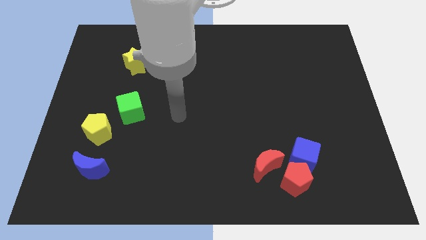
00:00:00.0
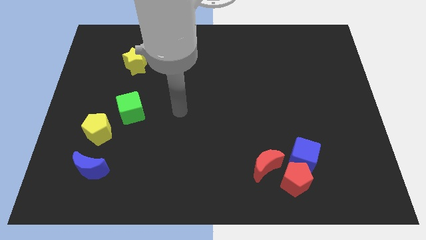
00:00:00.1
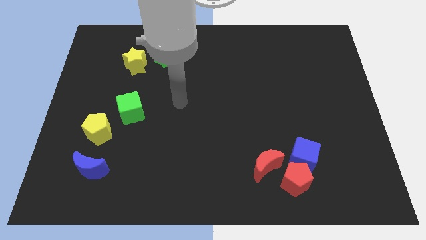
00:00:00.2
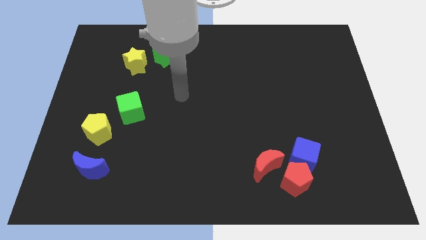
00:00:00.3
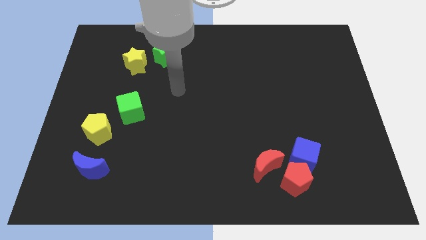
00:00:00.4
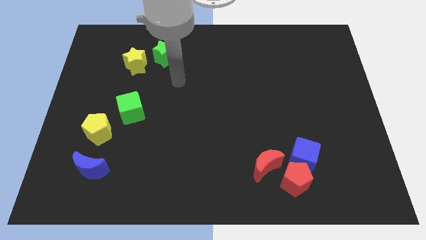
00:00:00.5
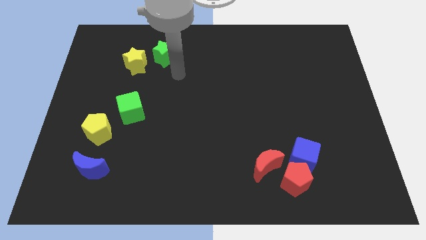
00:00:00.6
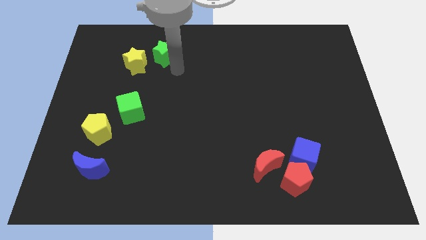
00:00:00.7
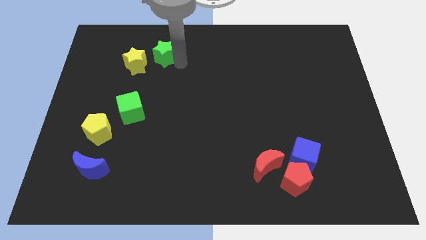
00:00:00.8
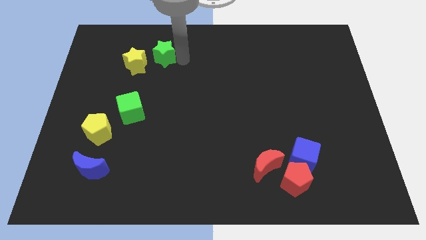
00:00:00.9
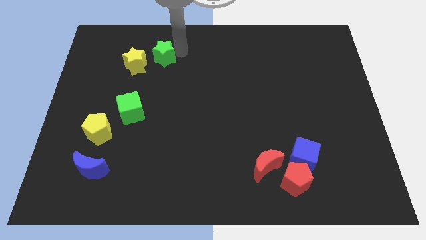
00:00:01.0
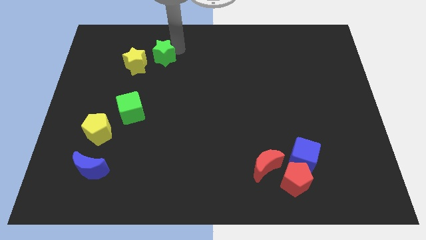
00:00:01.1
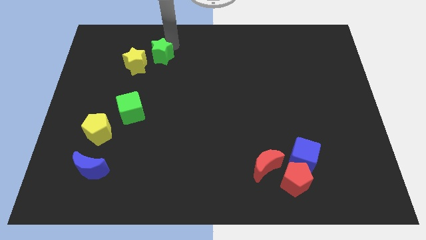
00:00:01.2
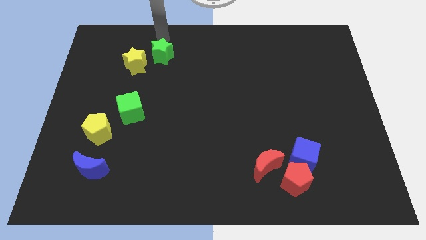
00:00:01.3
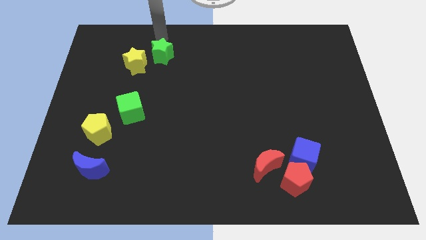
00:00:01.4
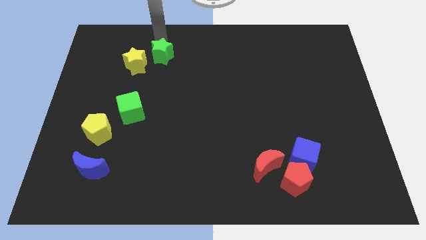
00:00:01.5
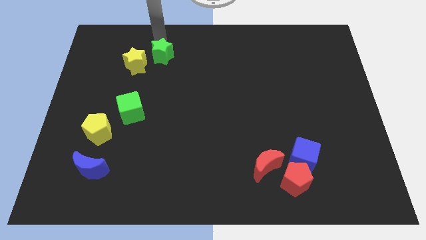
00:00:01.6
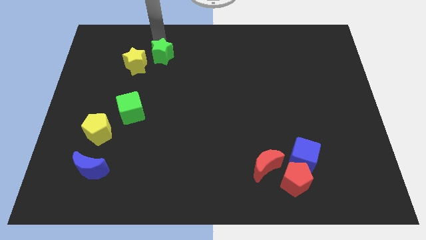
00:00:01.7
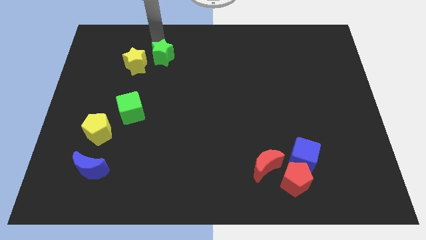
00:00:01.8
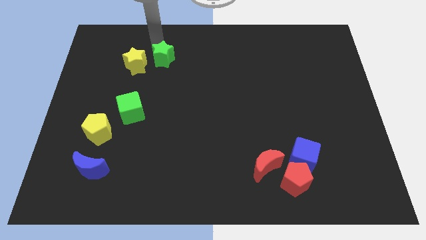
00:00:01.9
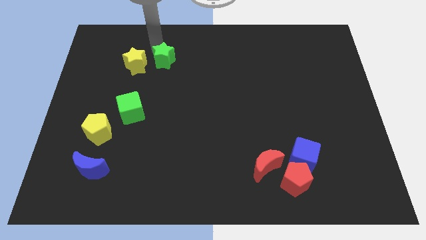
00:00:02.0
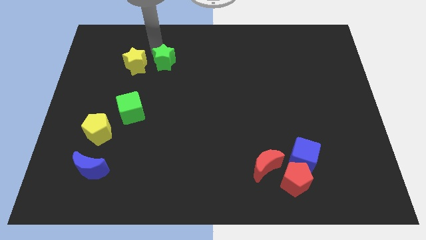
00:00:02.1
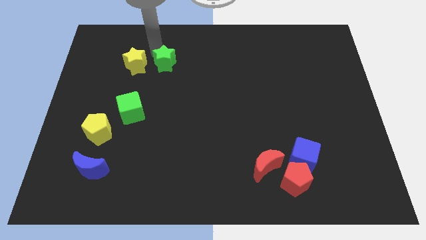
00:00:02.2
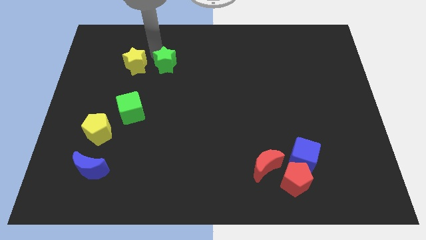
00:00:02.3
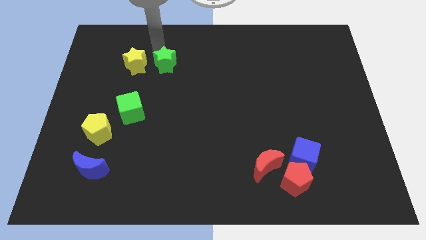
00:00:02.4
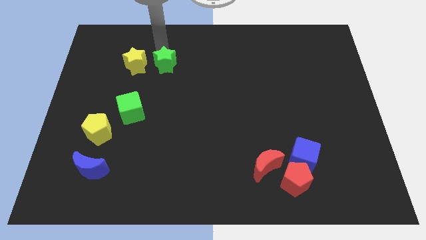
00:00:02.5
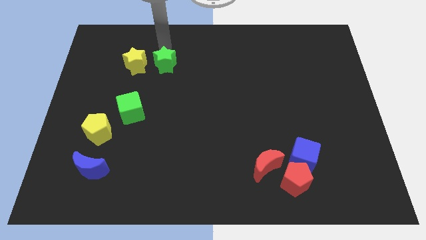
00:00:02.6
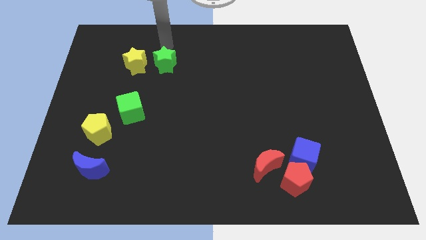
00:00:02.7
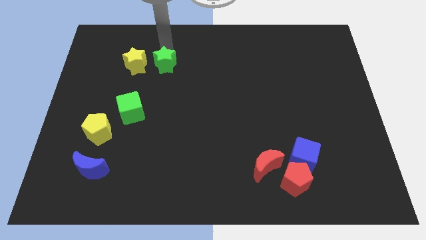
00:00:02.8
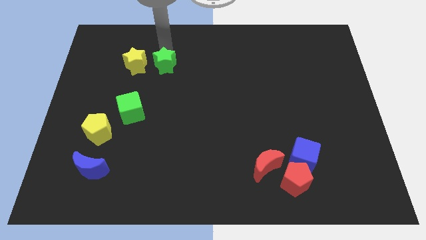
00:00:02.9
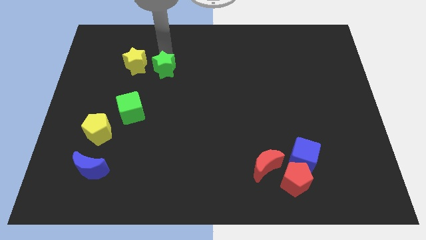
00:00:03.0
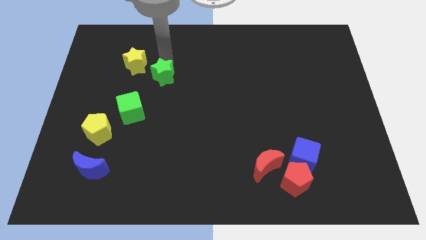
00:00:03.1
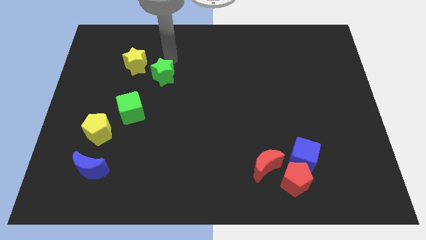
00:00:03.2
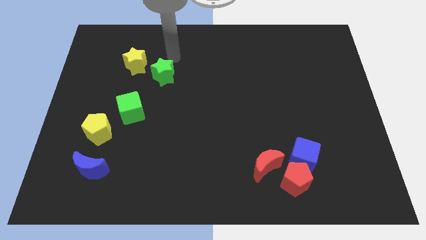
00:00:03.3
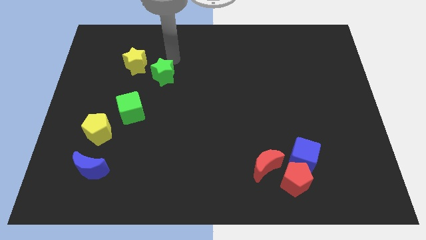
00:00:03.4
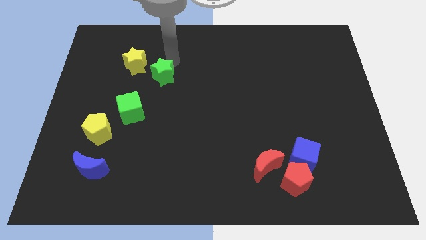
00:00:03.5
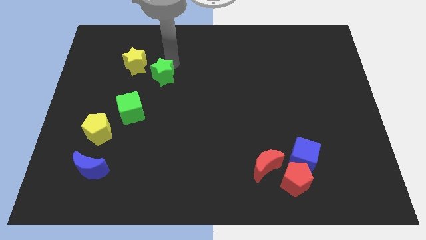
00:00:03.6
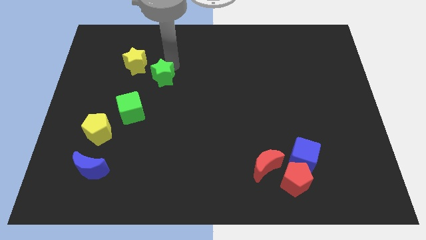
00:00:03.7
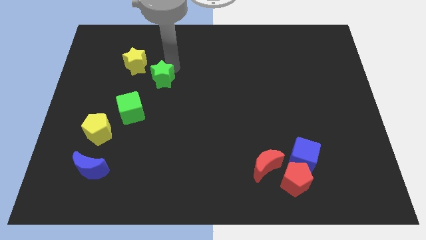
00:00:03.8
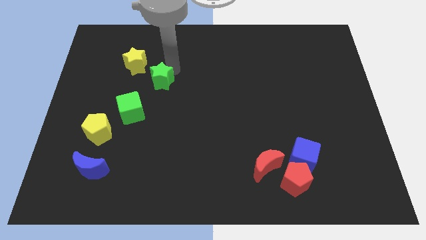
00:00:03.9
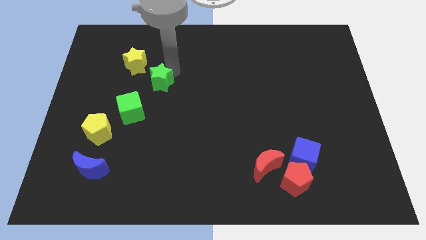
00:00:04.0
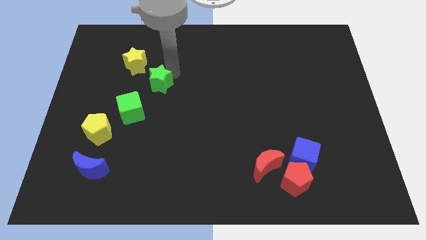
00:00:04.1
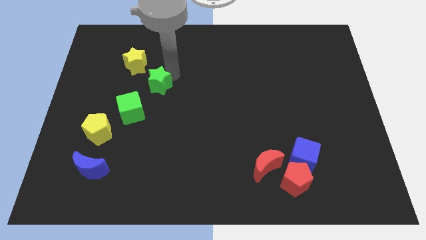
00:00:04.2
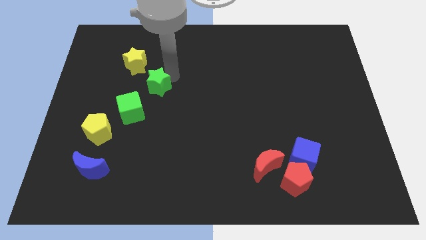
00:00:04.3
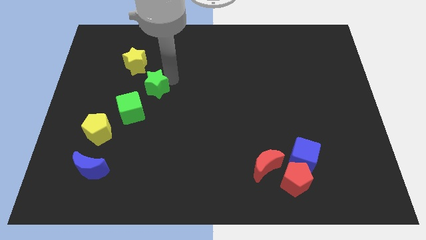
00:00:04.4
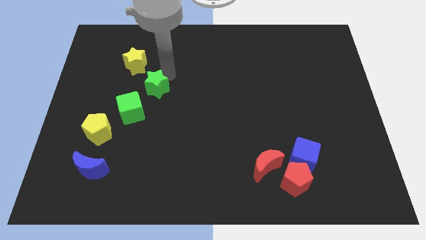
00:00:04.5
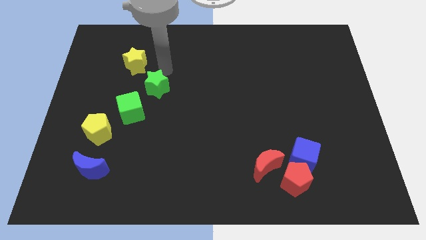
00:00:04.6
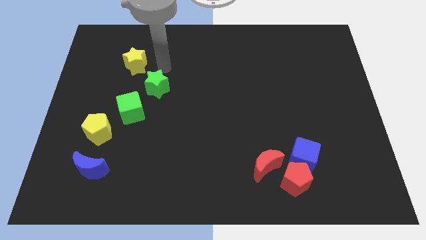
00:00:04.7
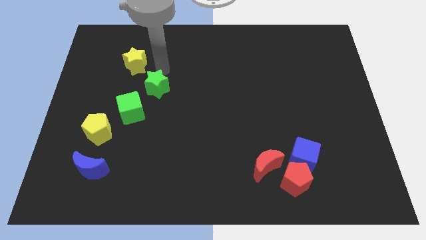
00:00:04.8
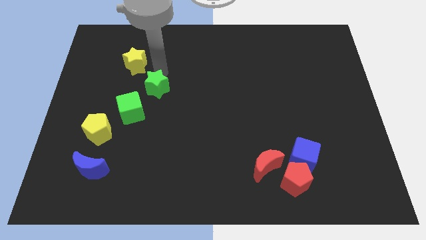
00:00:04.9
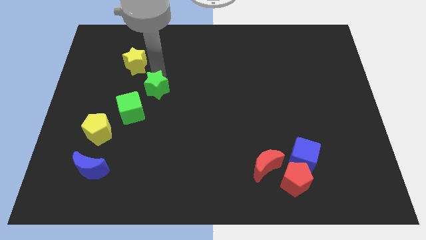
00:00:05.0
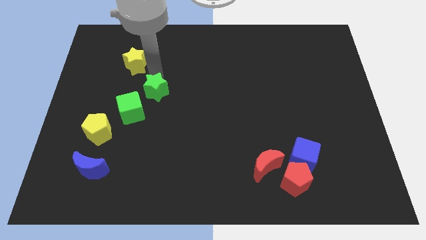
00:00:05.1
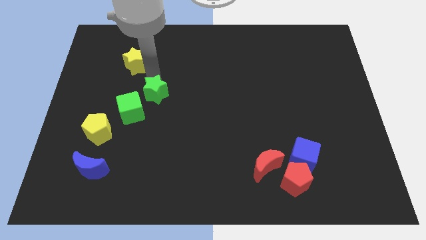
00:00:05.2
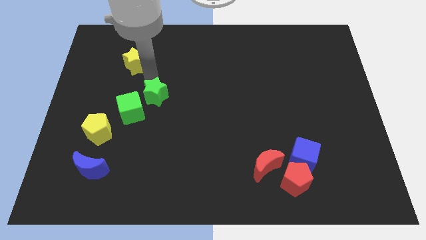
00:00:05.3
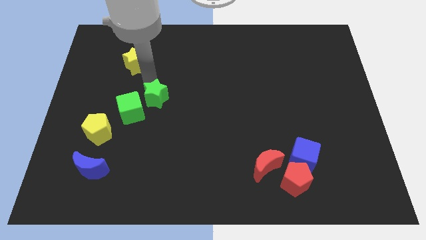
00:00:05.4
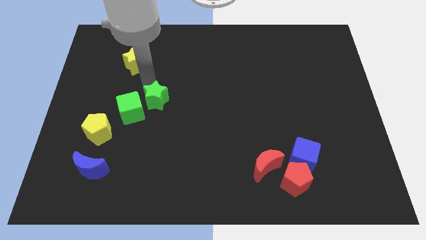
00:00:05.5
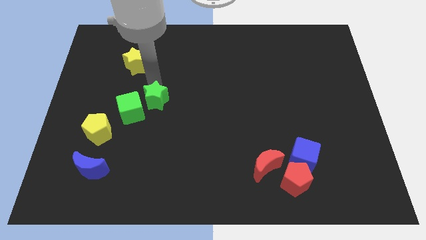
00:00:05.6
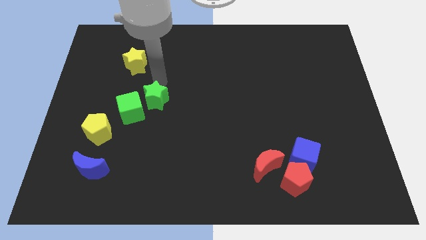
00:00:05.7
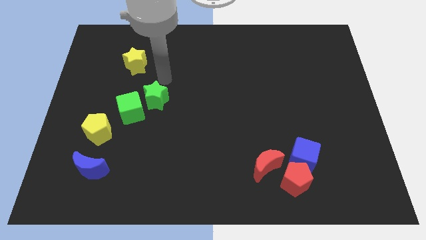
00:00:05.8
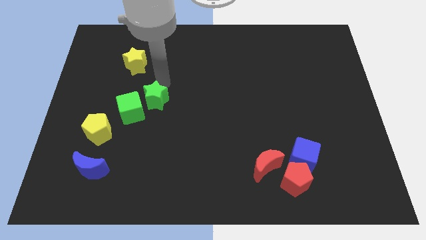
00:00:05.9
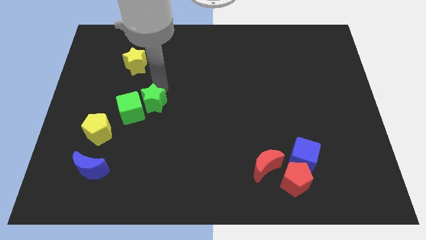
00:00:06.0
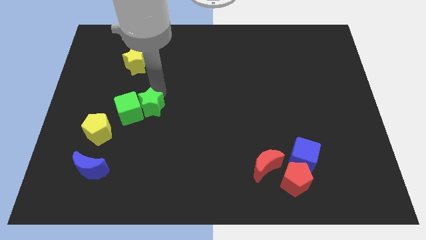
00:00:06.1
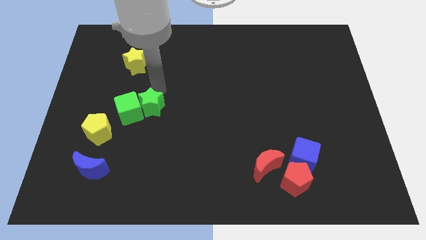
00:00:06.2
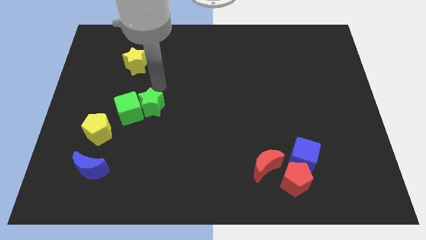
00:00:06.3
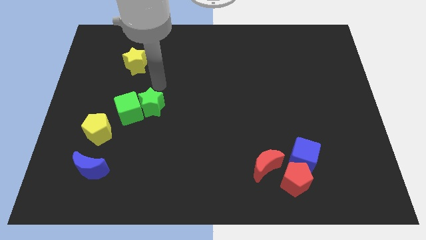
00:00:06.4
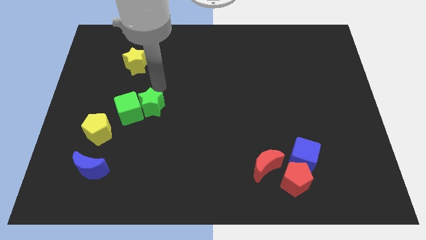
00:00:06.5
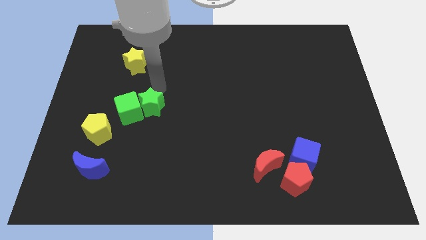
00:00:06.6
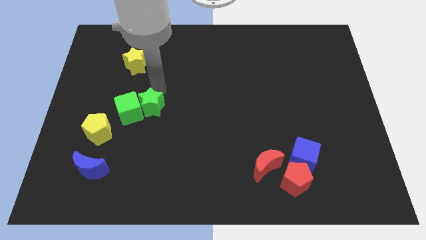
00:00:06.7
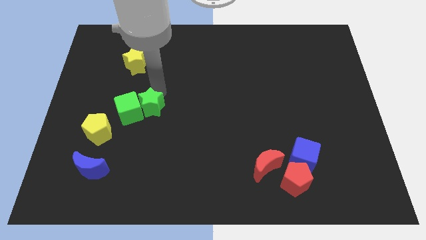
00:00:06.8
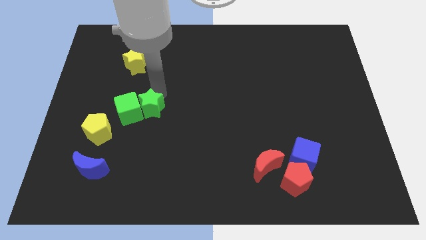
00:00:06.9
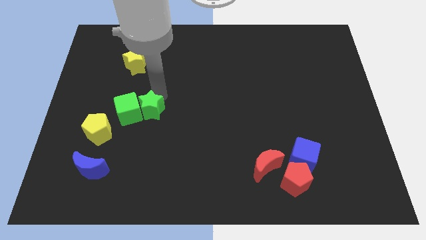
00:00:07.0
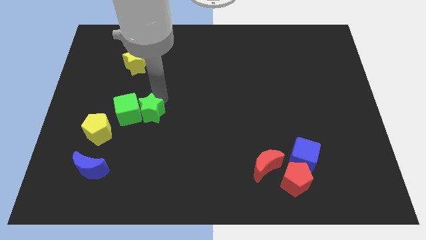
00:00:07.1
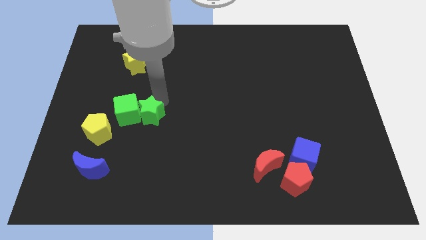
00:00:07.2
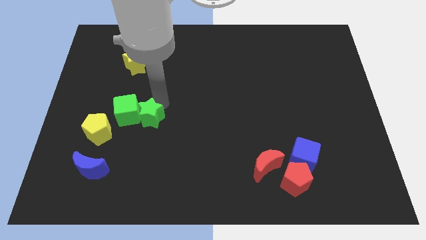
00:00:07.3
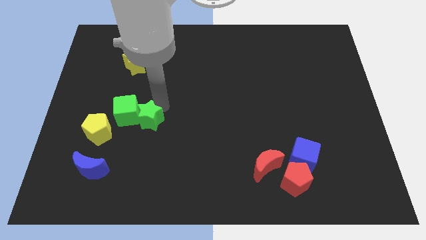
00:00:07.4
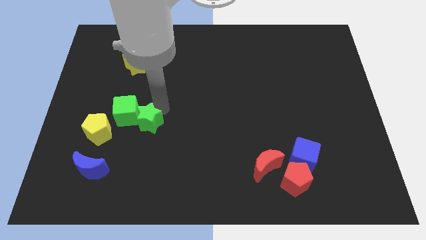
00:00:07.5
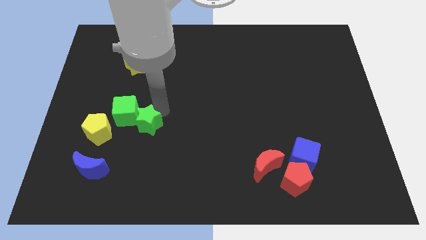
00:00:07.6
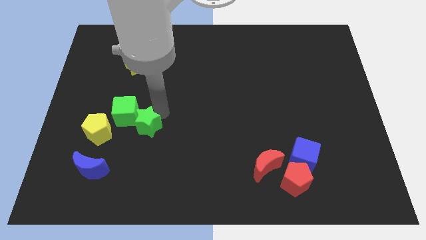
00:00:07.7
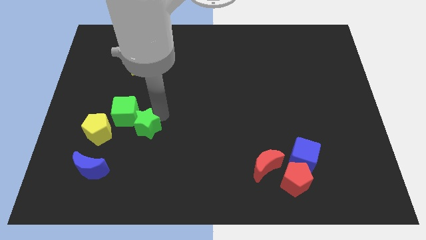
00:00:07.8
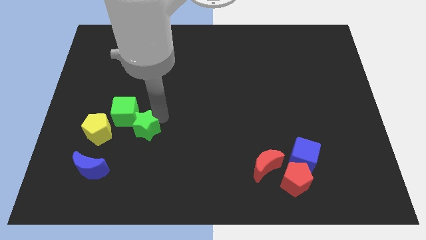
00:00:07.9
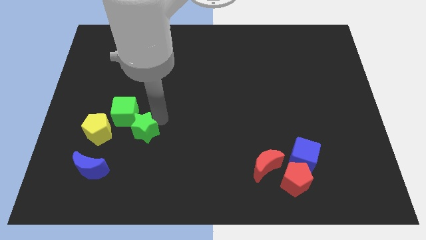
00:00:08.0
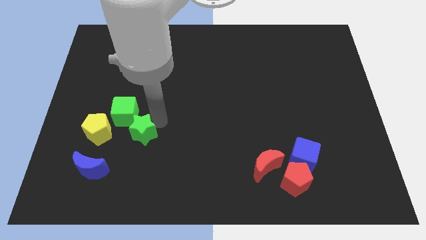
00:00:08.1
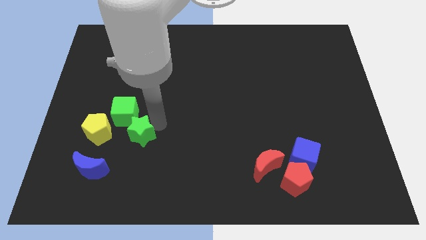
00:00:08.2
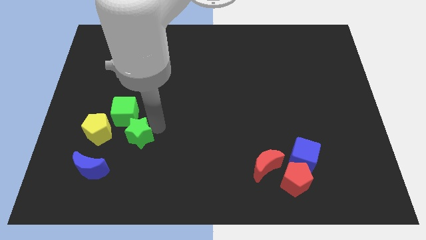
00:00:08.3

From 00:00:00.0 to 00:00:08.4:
slide the green star diagonally up and to the right of the blue moon
